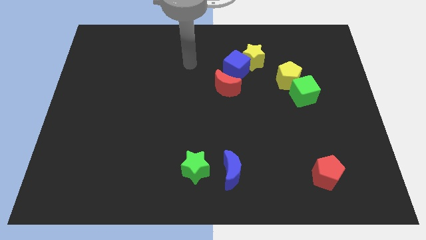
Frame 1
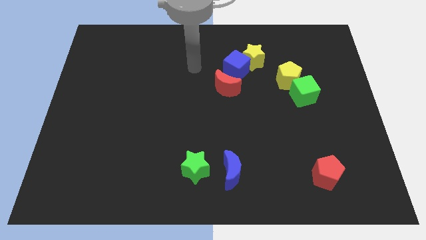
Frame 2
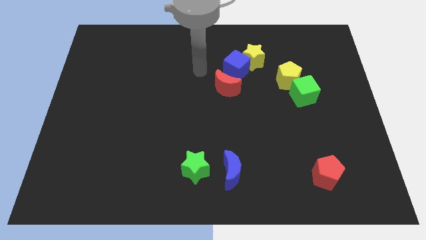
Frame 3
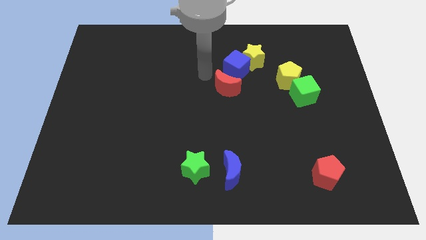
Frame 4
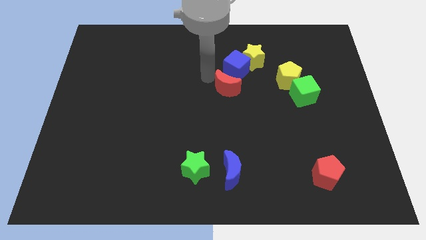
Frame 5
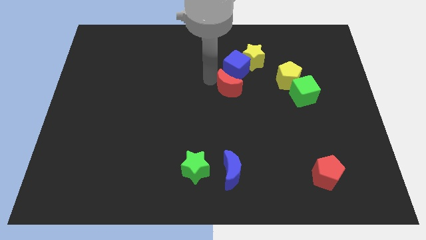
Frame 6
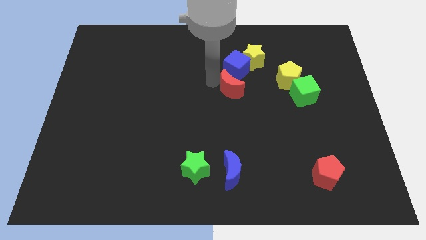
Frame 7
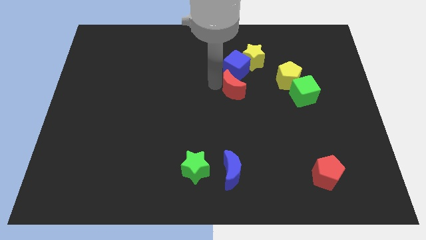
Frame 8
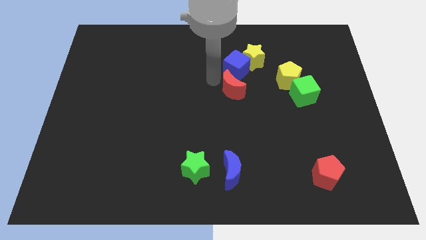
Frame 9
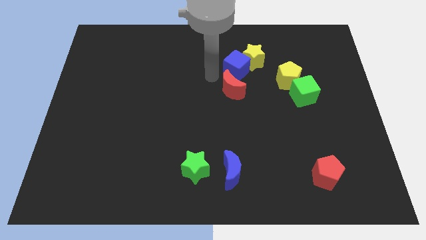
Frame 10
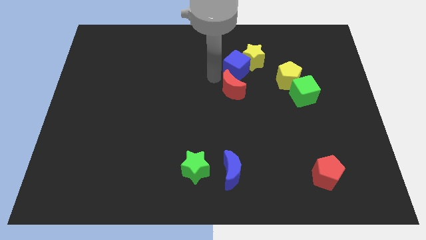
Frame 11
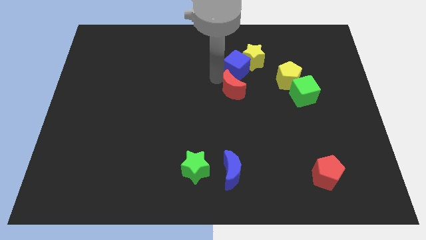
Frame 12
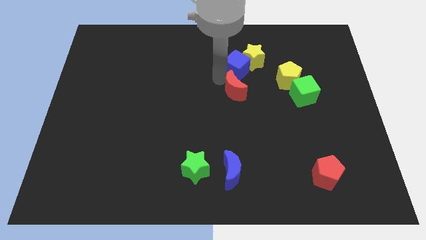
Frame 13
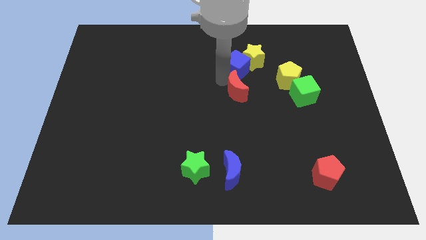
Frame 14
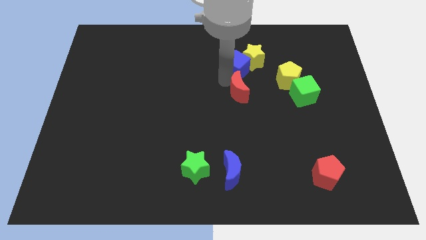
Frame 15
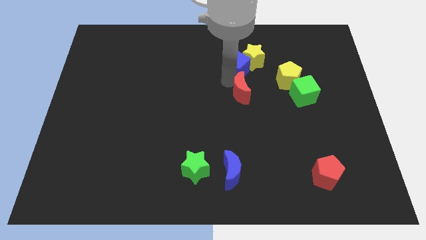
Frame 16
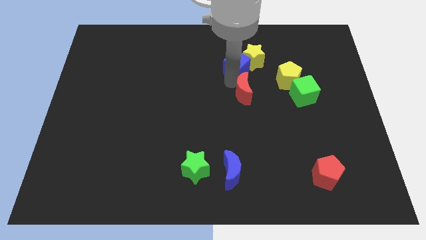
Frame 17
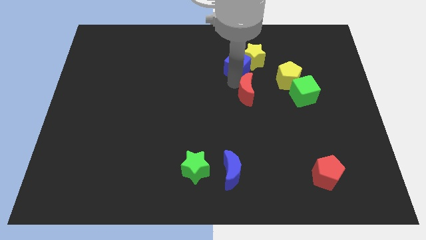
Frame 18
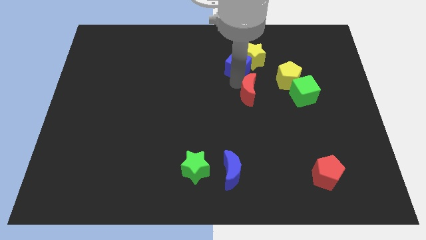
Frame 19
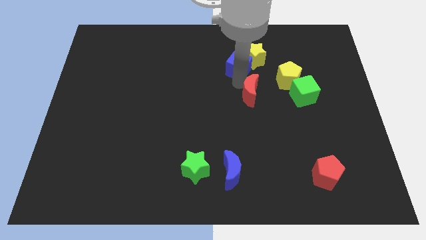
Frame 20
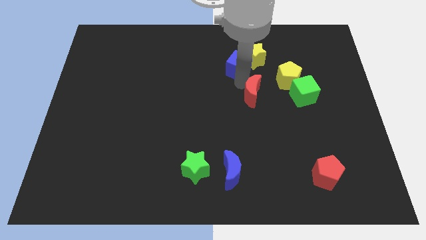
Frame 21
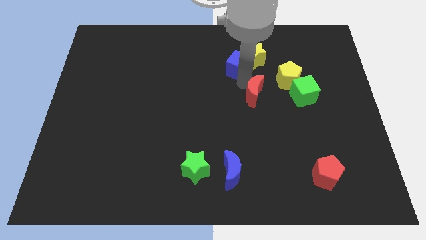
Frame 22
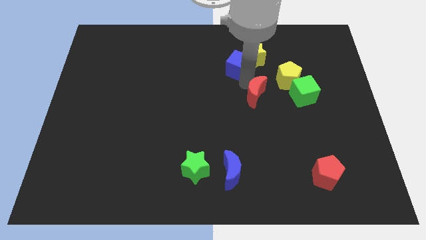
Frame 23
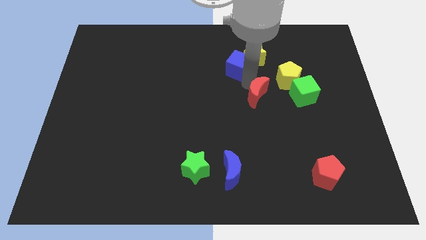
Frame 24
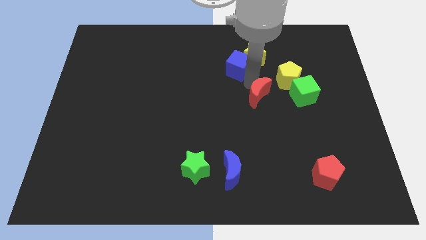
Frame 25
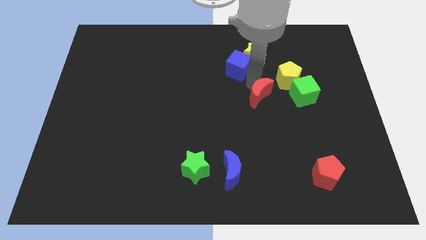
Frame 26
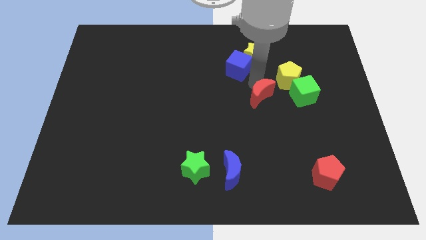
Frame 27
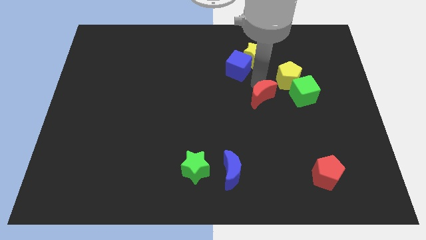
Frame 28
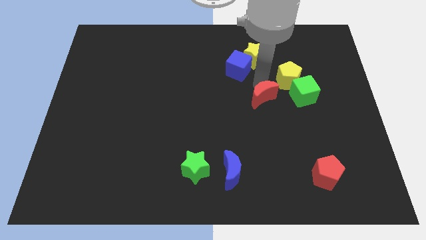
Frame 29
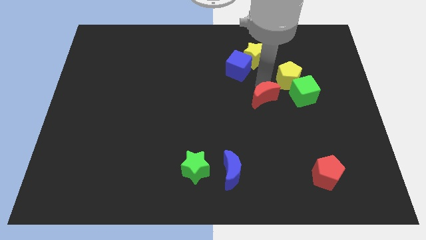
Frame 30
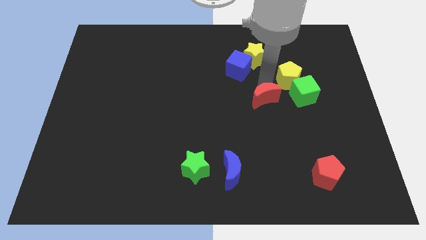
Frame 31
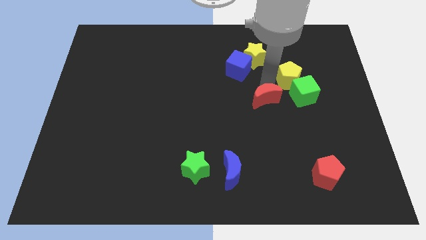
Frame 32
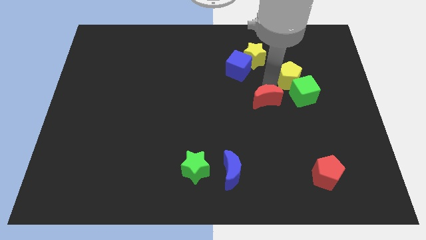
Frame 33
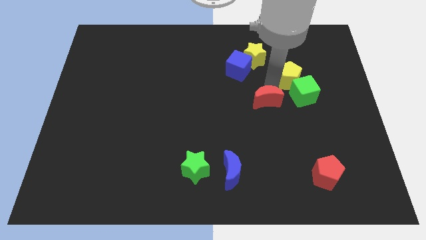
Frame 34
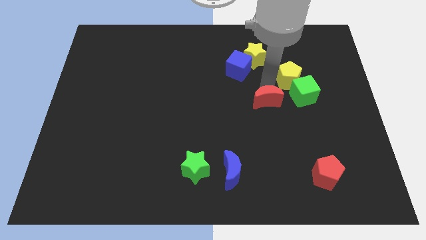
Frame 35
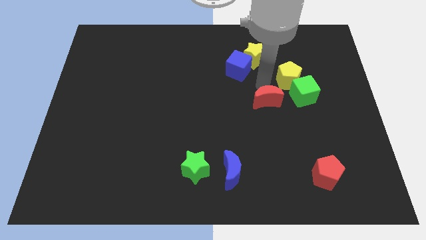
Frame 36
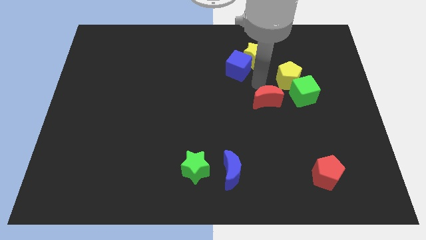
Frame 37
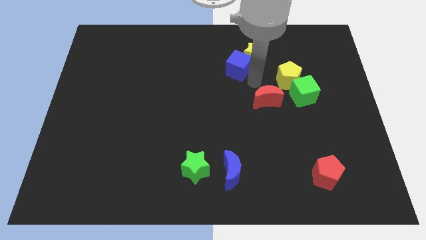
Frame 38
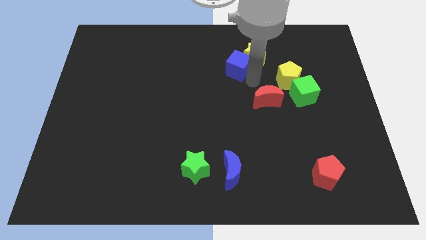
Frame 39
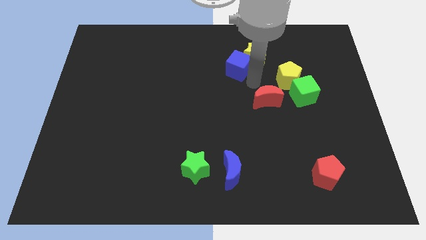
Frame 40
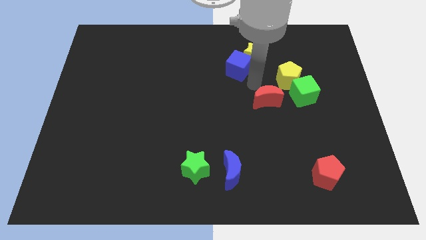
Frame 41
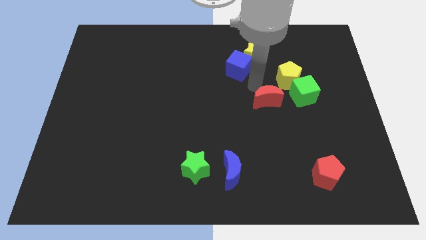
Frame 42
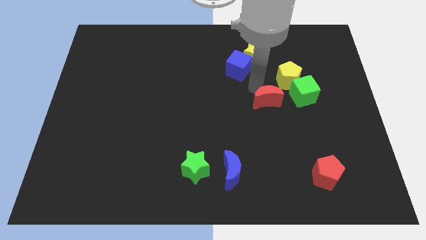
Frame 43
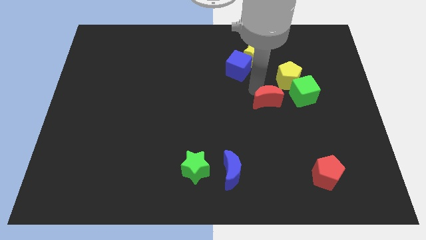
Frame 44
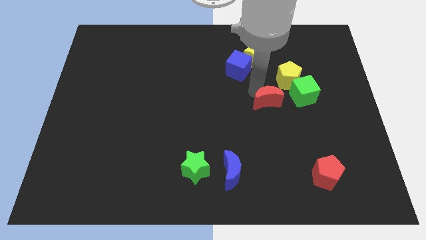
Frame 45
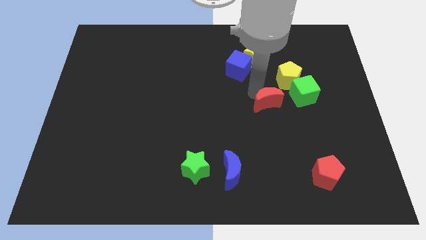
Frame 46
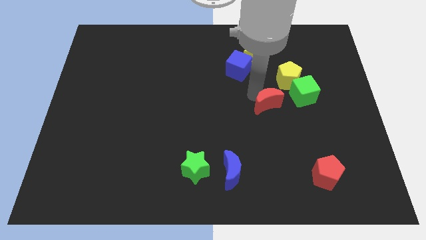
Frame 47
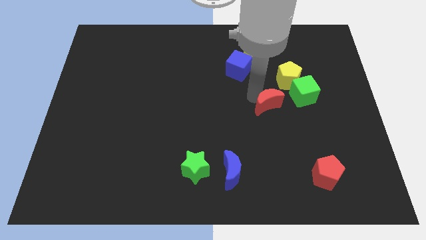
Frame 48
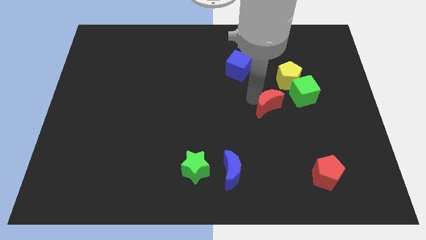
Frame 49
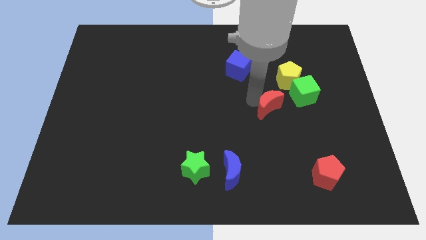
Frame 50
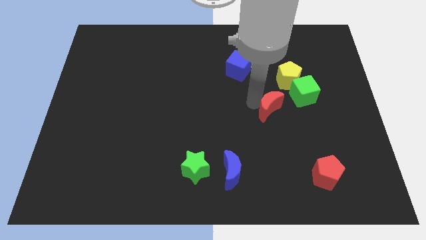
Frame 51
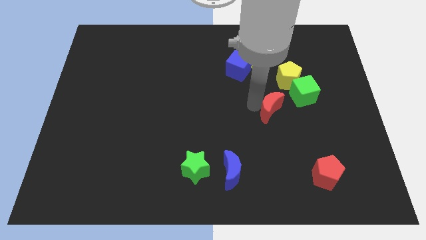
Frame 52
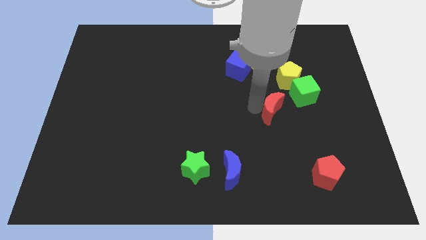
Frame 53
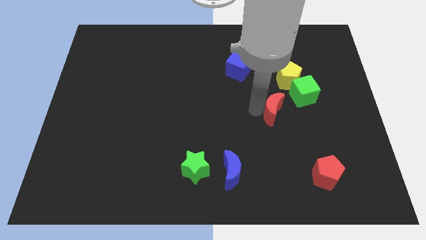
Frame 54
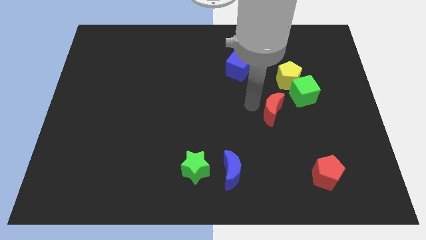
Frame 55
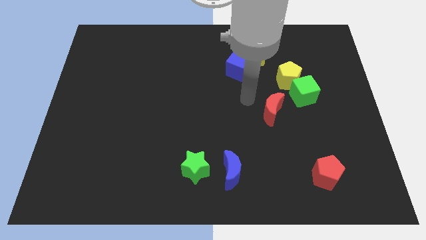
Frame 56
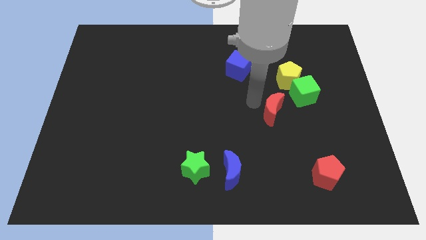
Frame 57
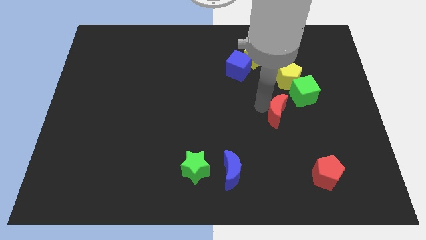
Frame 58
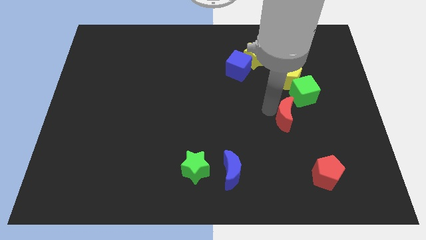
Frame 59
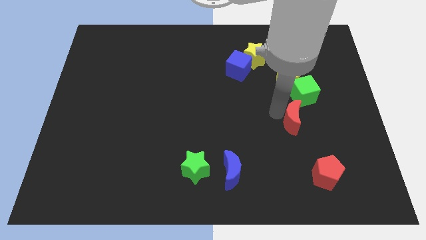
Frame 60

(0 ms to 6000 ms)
push the red moon to the bottom of the green cube

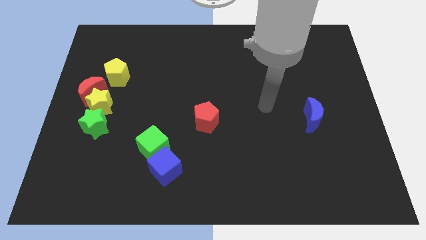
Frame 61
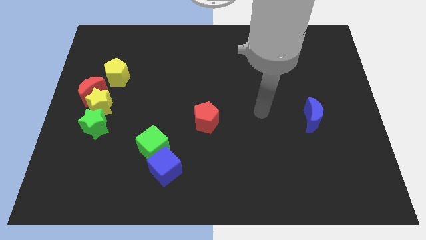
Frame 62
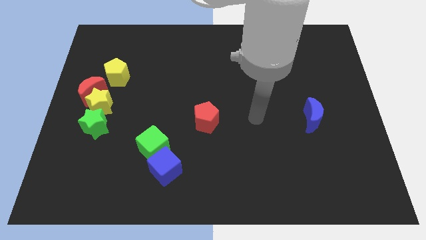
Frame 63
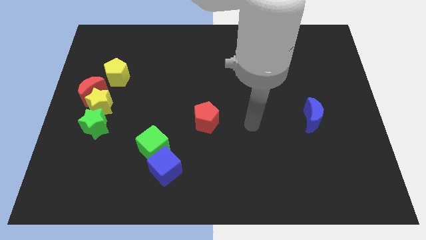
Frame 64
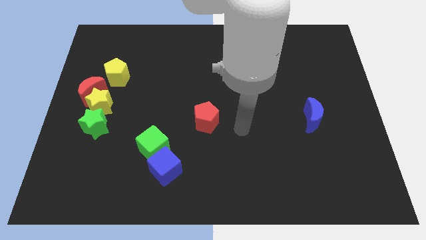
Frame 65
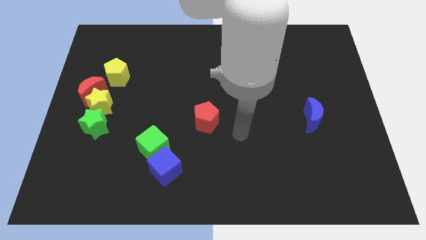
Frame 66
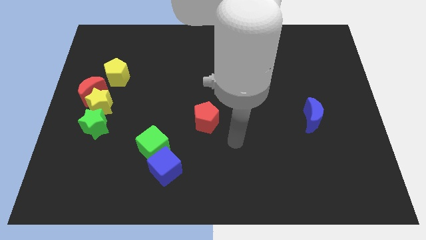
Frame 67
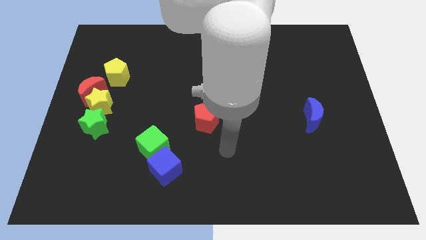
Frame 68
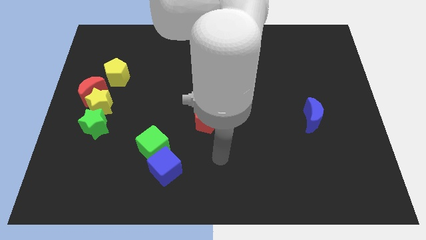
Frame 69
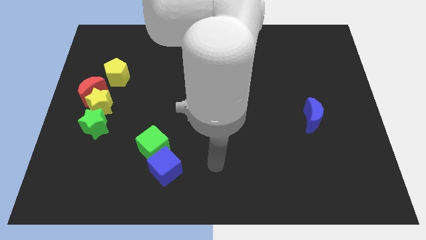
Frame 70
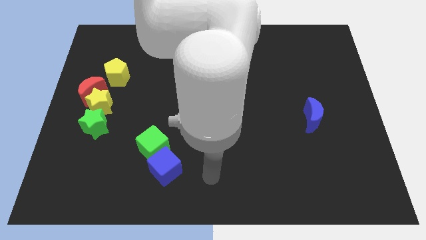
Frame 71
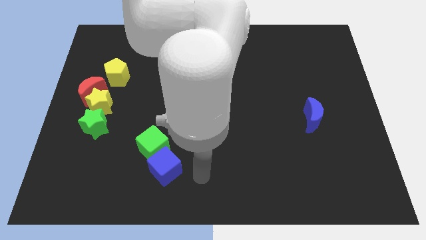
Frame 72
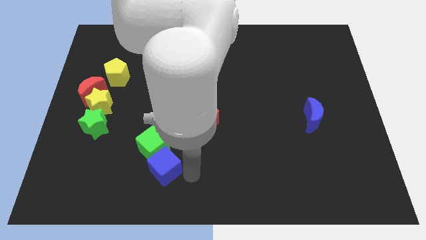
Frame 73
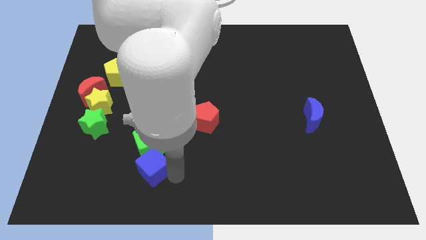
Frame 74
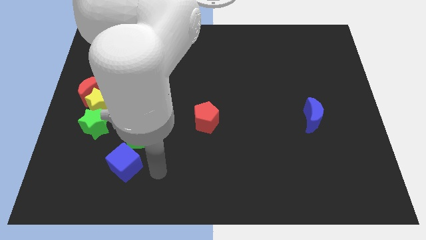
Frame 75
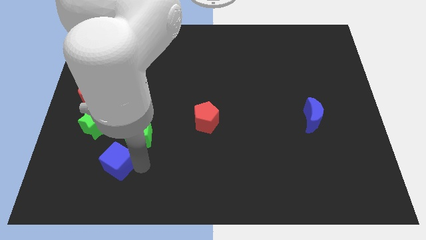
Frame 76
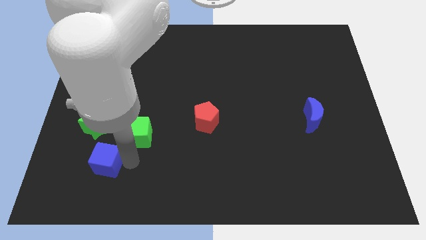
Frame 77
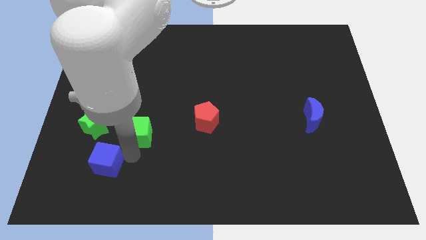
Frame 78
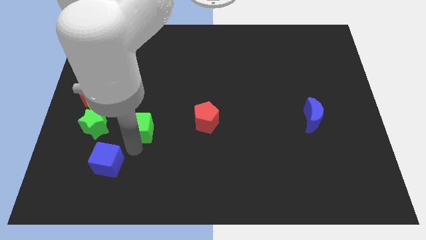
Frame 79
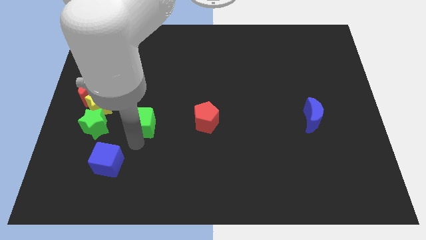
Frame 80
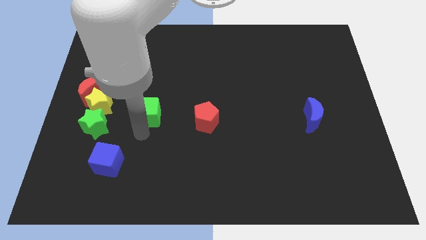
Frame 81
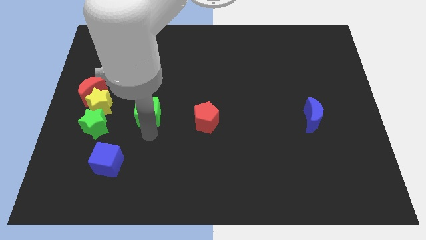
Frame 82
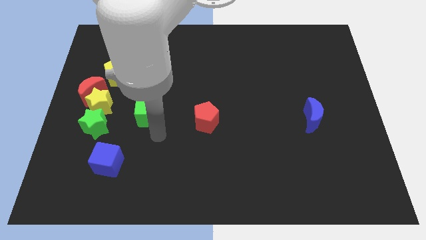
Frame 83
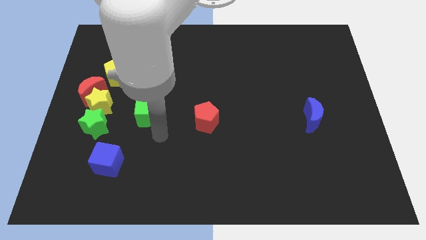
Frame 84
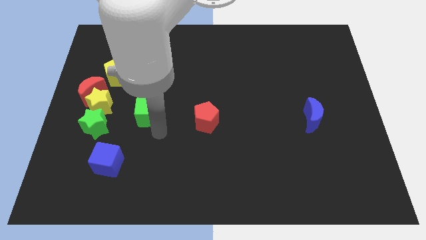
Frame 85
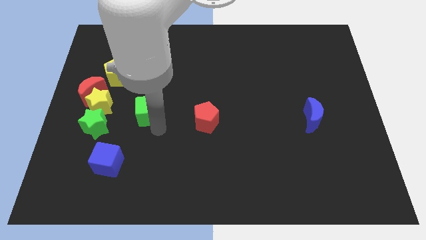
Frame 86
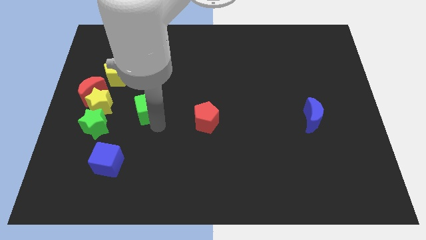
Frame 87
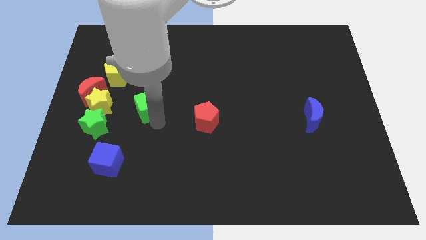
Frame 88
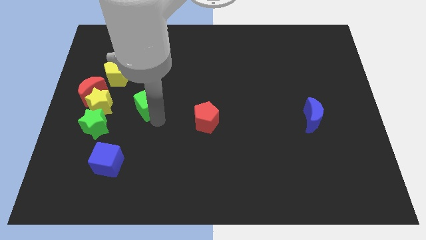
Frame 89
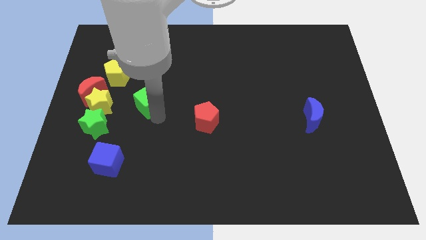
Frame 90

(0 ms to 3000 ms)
slide the green cube to the bottom right side of the yellow pentagon
